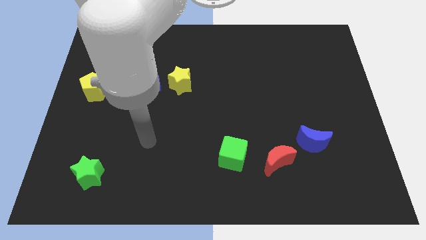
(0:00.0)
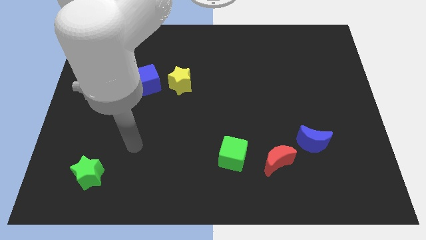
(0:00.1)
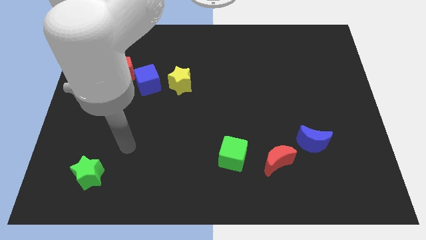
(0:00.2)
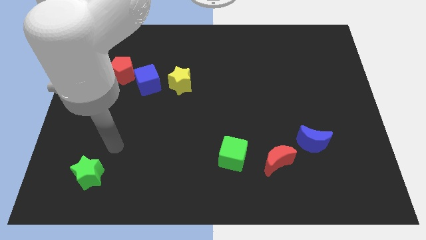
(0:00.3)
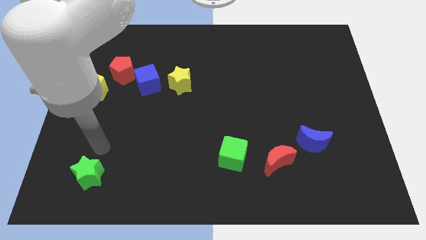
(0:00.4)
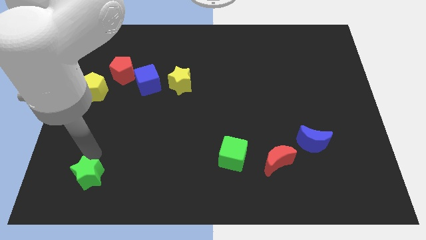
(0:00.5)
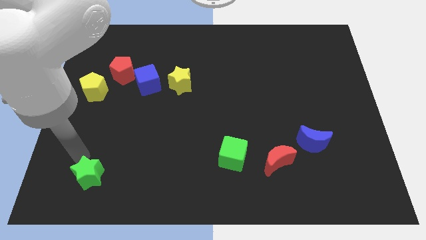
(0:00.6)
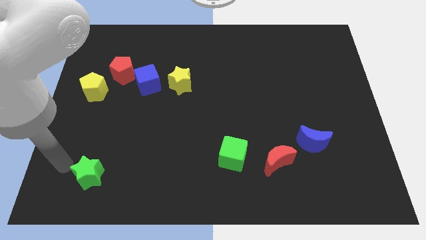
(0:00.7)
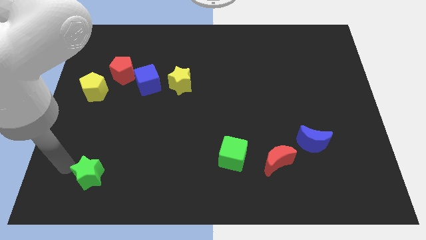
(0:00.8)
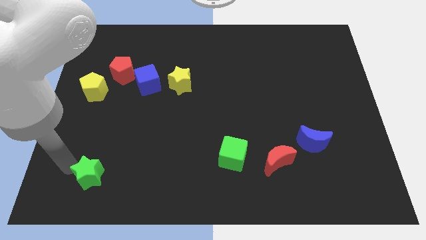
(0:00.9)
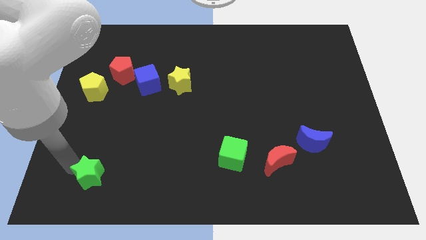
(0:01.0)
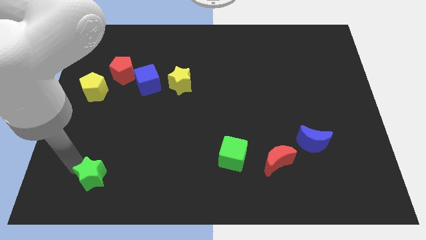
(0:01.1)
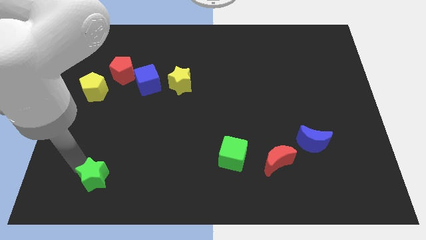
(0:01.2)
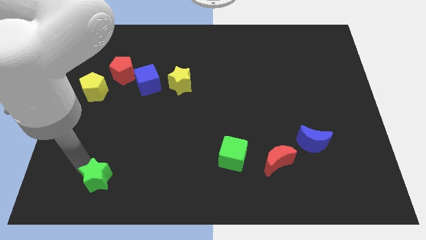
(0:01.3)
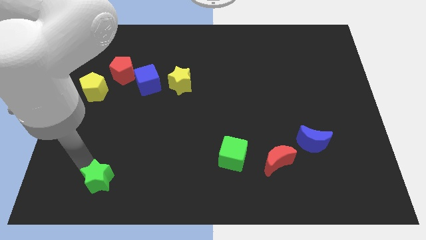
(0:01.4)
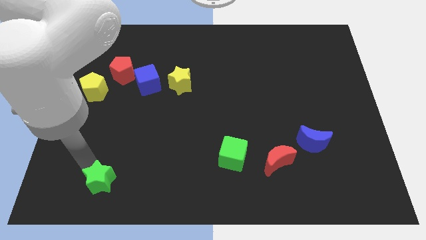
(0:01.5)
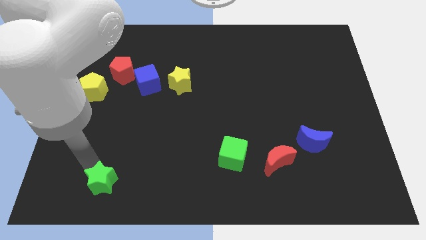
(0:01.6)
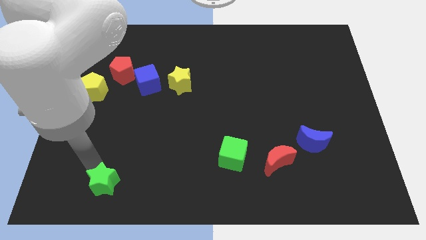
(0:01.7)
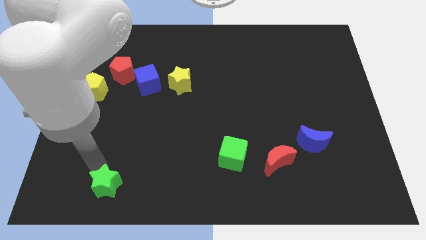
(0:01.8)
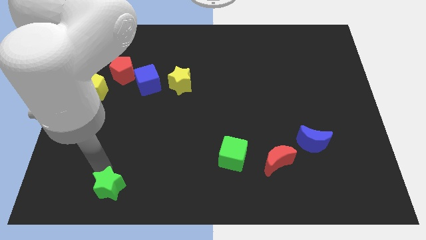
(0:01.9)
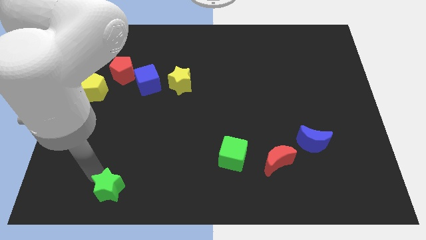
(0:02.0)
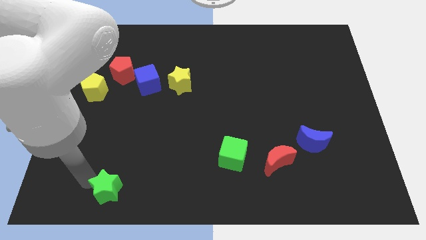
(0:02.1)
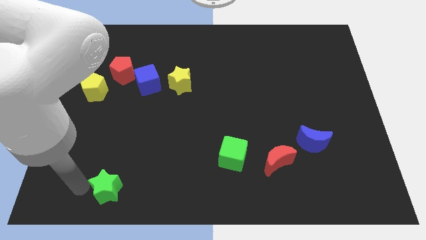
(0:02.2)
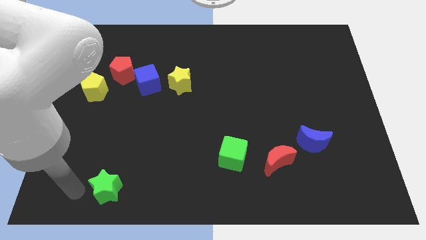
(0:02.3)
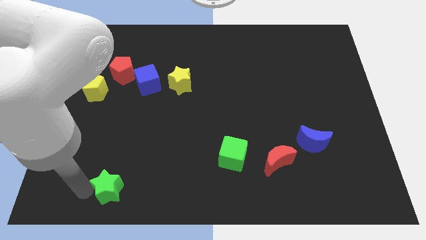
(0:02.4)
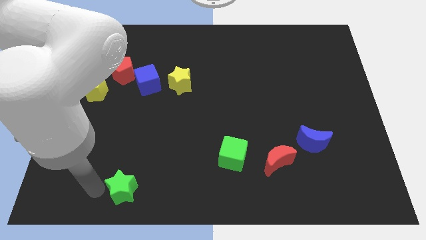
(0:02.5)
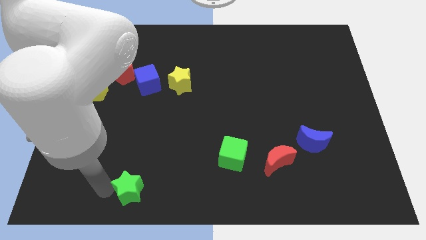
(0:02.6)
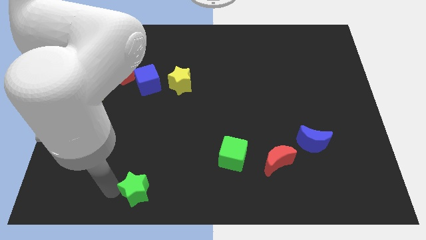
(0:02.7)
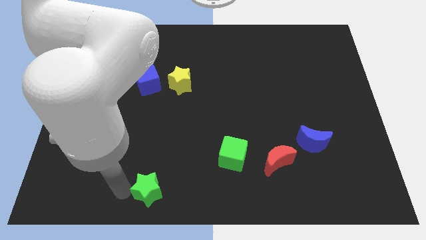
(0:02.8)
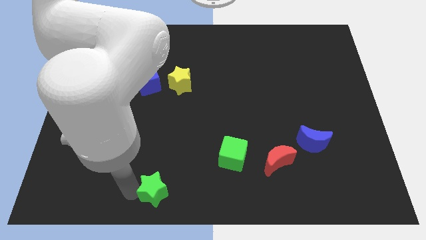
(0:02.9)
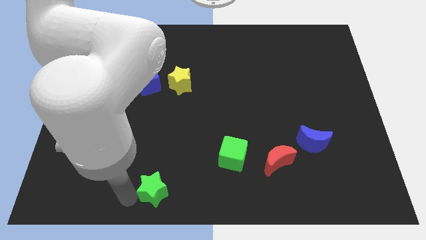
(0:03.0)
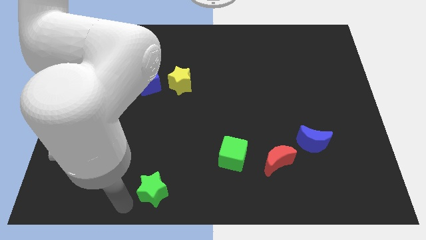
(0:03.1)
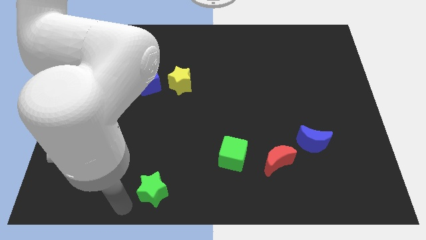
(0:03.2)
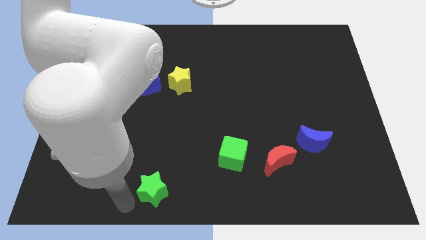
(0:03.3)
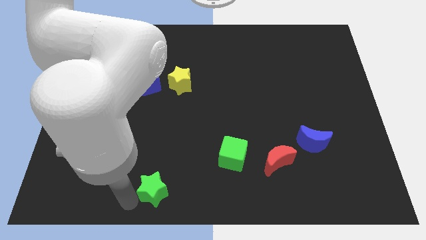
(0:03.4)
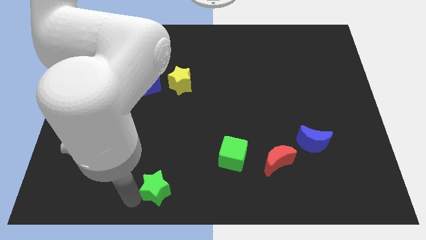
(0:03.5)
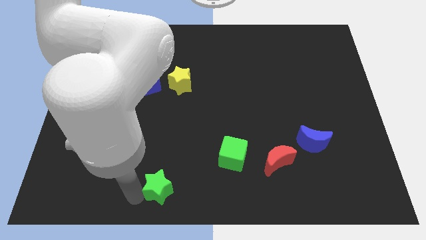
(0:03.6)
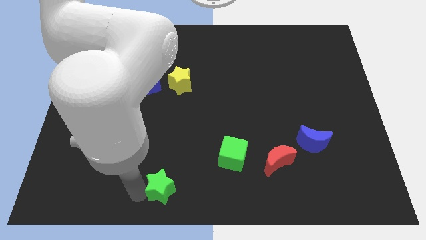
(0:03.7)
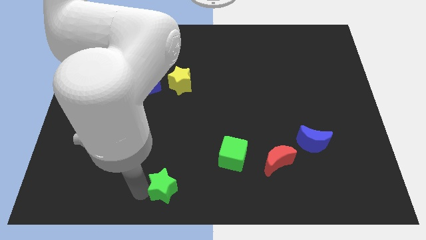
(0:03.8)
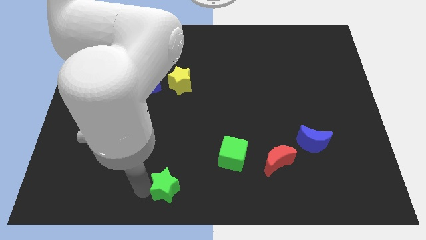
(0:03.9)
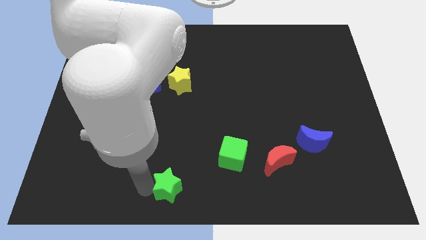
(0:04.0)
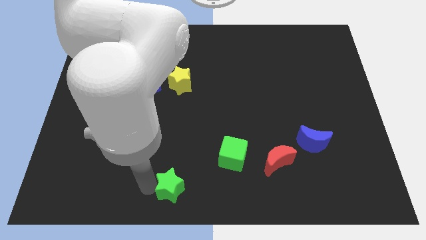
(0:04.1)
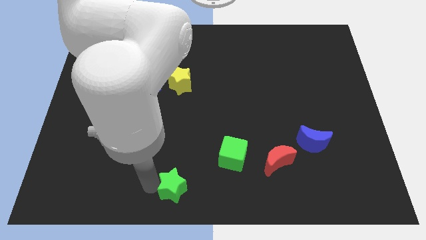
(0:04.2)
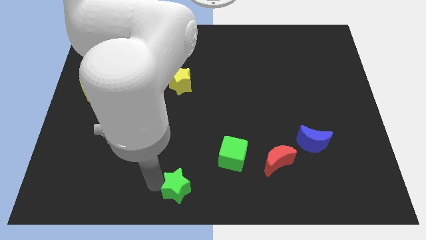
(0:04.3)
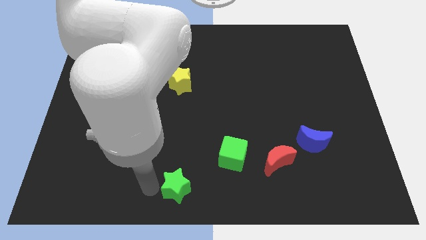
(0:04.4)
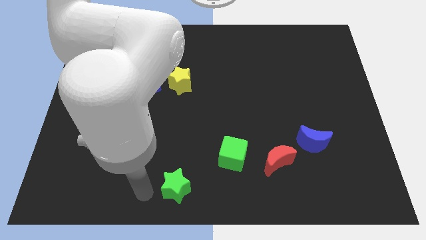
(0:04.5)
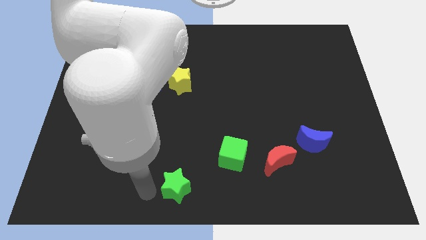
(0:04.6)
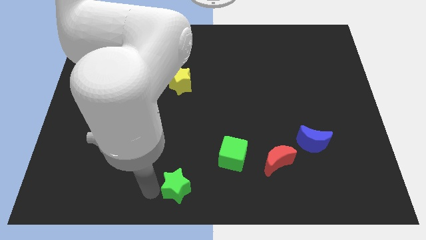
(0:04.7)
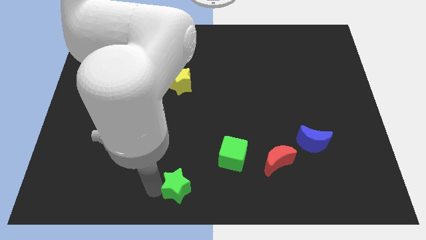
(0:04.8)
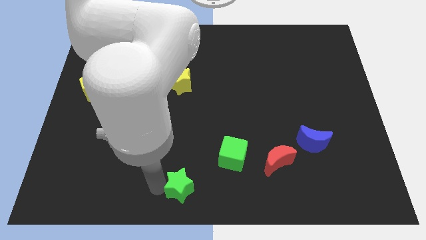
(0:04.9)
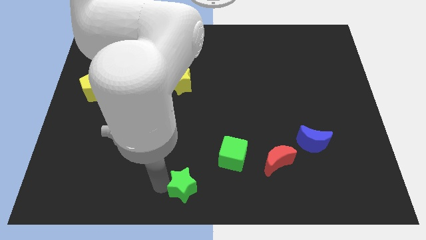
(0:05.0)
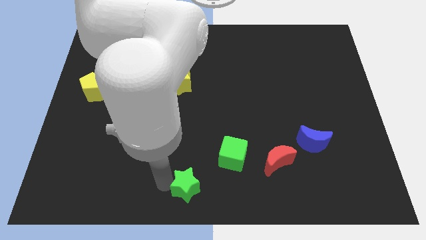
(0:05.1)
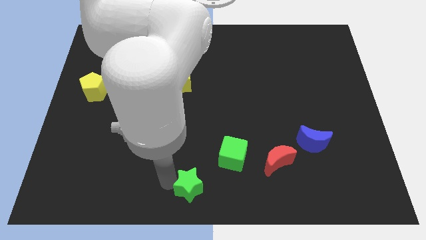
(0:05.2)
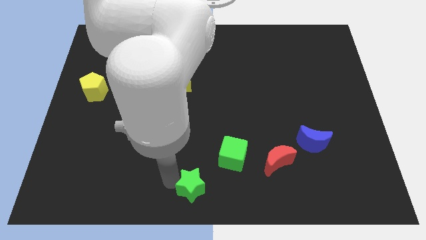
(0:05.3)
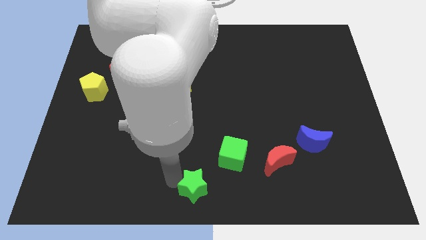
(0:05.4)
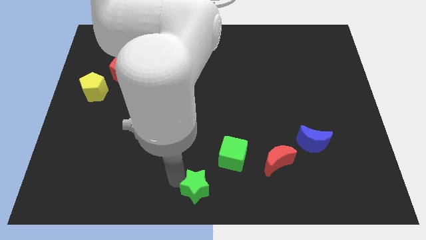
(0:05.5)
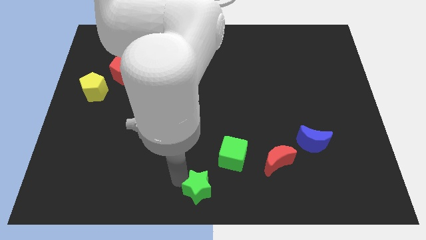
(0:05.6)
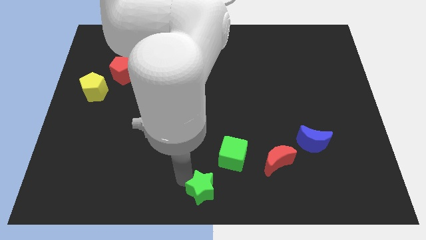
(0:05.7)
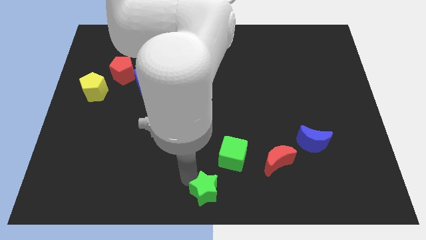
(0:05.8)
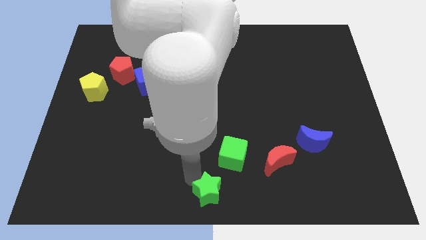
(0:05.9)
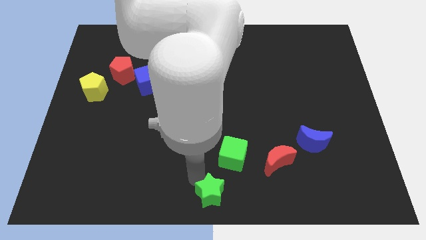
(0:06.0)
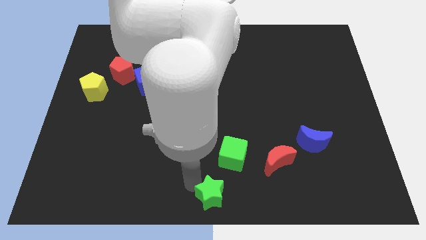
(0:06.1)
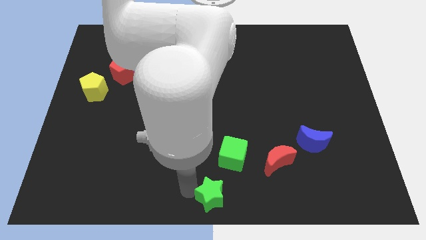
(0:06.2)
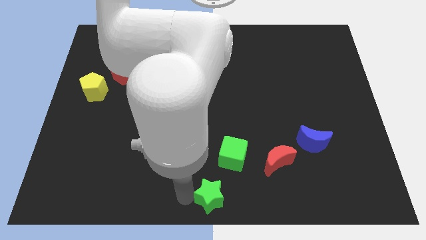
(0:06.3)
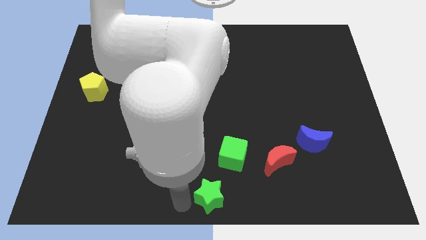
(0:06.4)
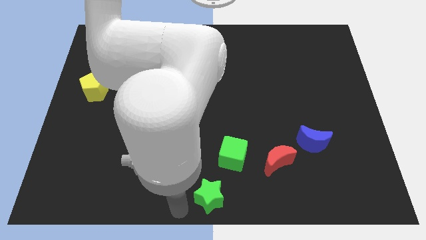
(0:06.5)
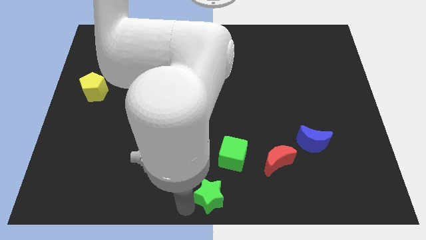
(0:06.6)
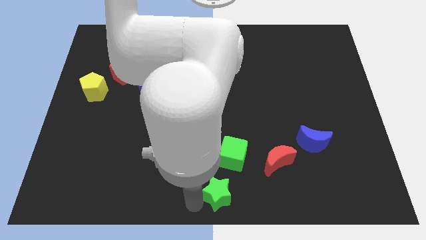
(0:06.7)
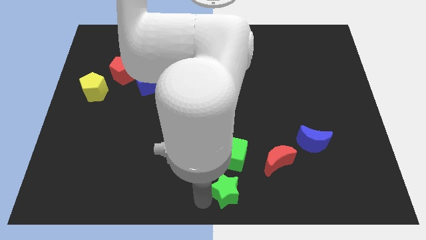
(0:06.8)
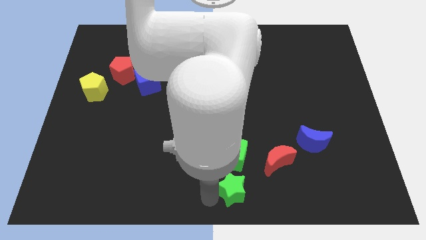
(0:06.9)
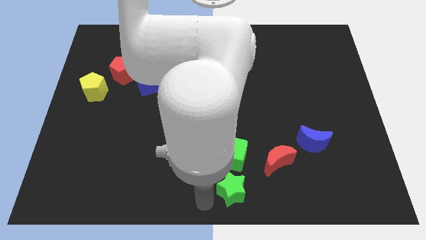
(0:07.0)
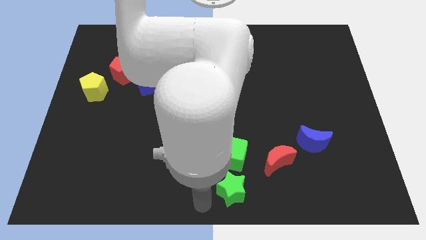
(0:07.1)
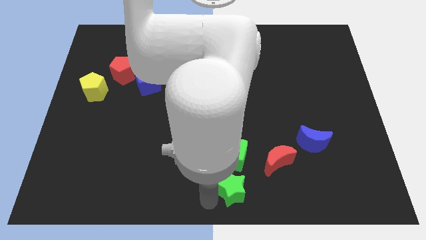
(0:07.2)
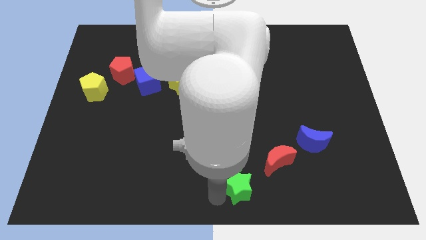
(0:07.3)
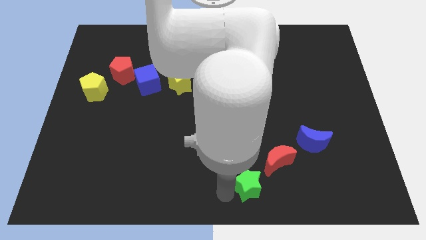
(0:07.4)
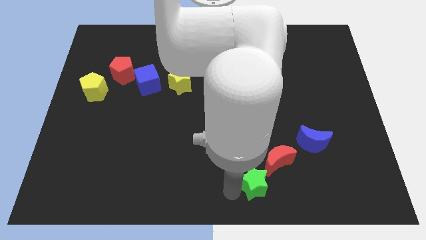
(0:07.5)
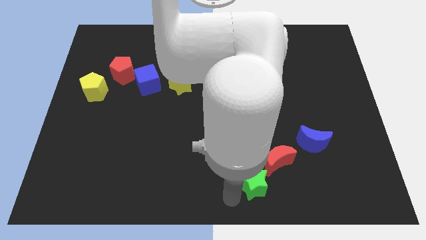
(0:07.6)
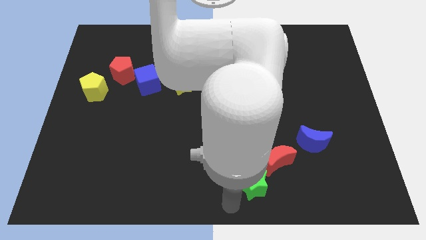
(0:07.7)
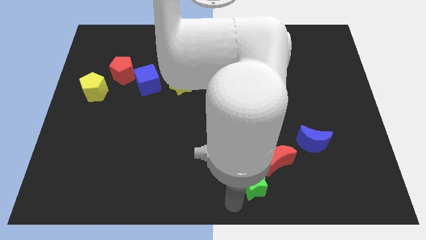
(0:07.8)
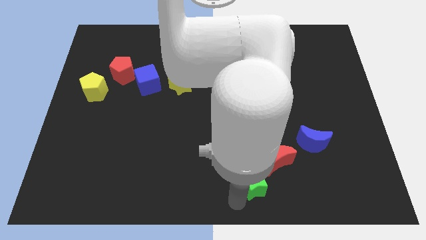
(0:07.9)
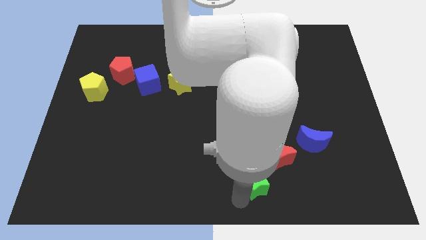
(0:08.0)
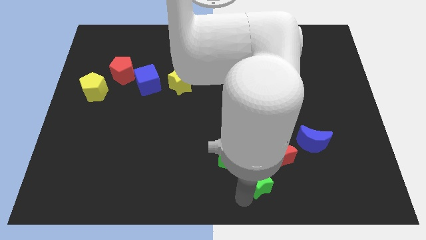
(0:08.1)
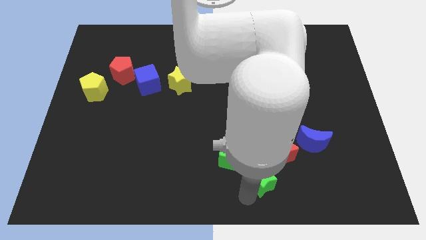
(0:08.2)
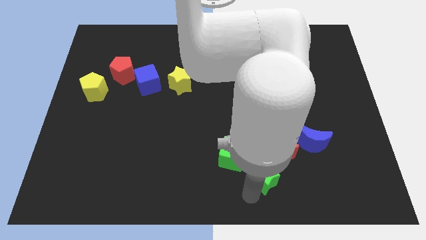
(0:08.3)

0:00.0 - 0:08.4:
move the green star close to the red moon
